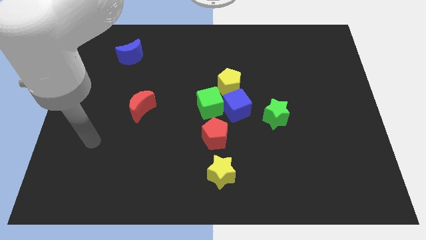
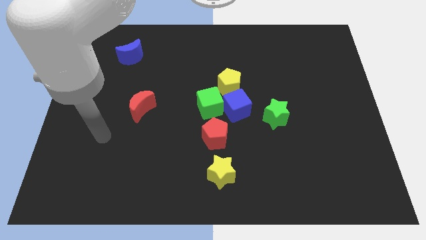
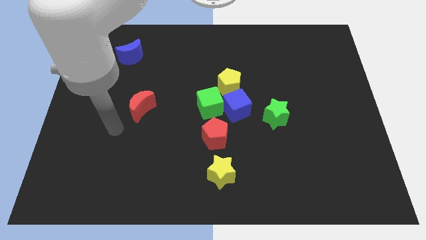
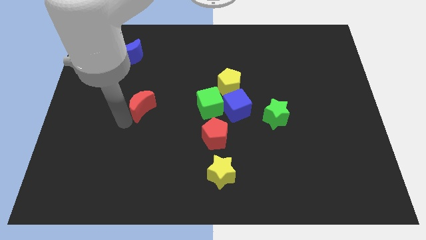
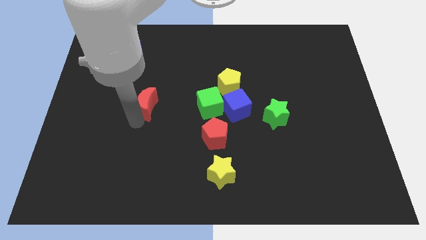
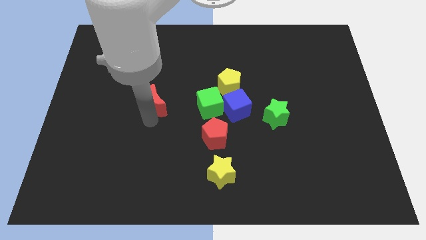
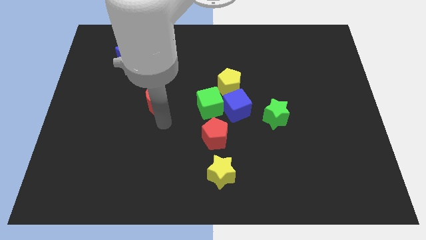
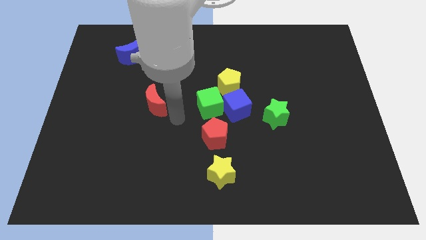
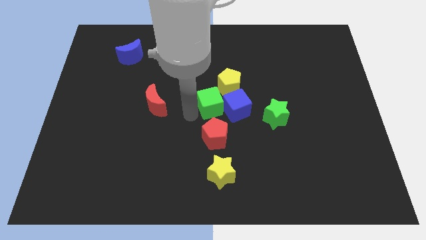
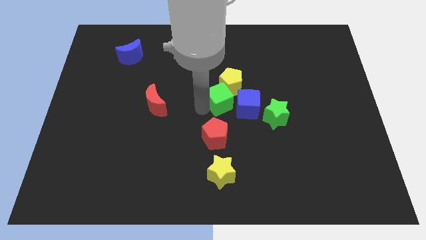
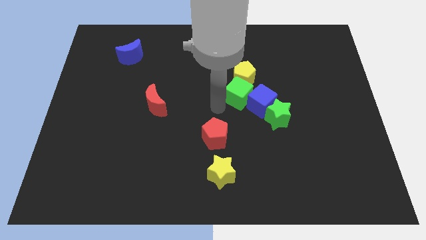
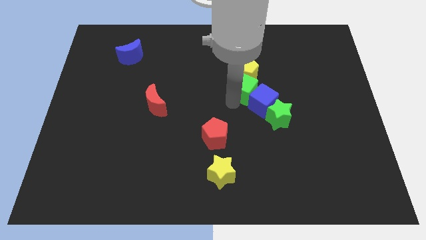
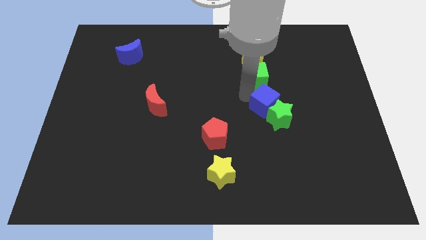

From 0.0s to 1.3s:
pull the yellow pentagon apart from the blue cube and green cube

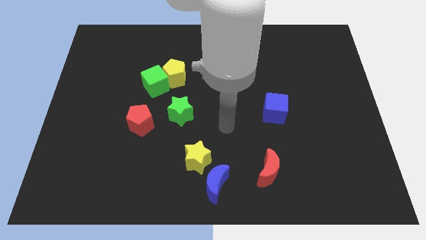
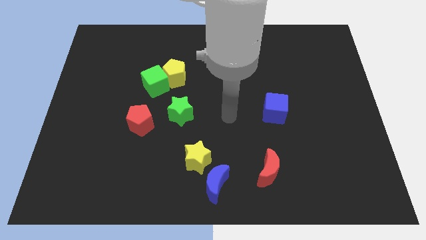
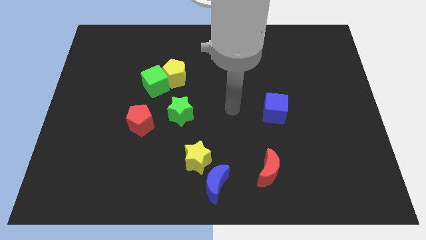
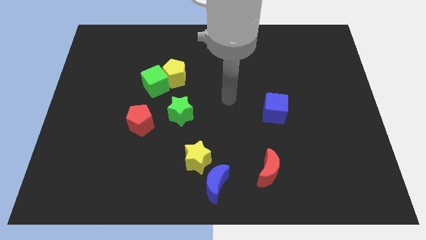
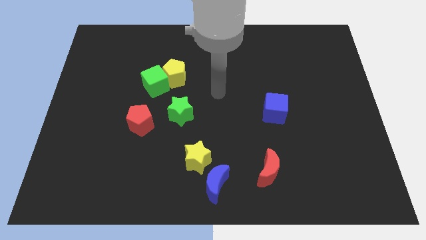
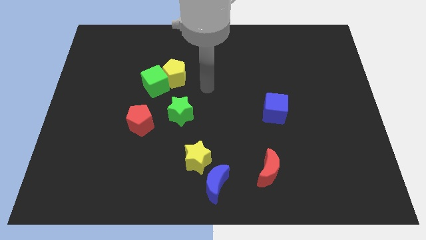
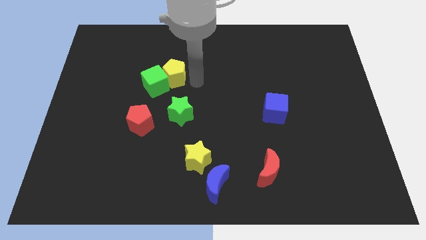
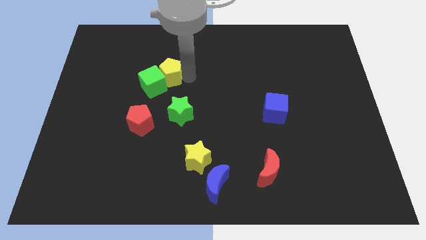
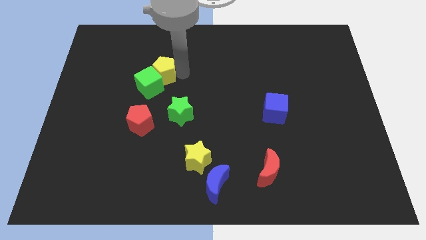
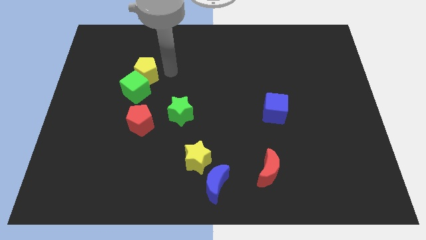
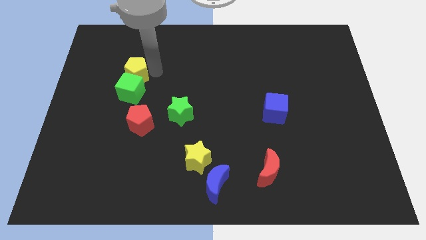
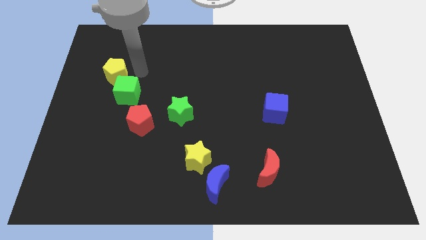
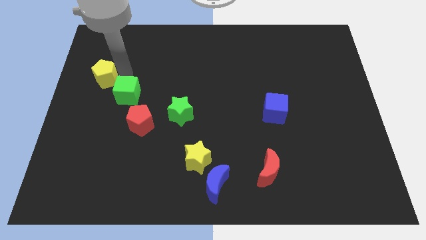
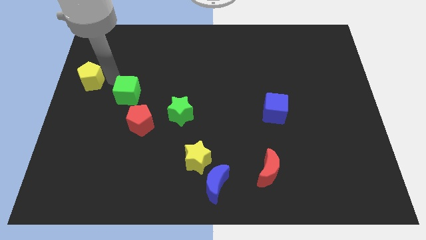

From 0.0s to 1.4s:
move the green cube away from the yellow pentagon

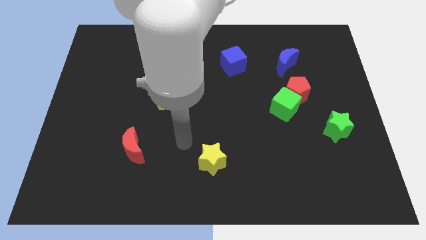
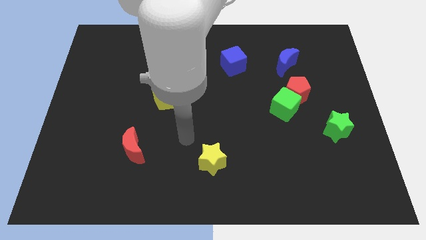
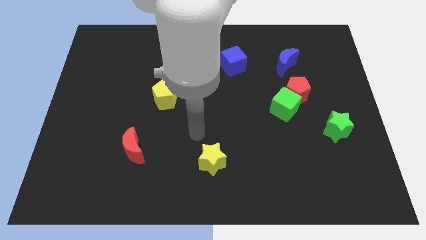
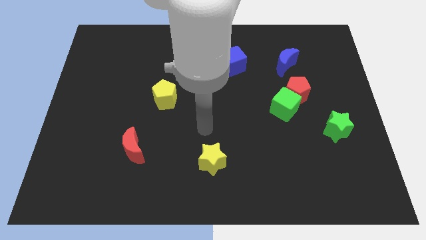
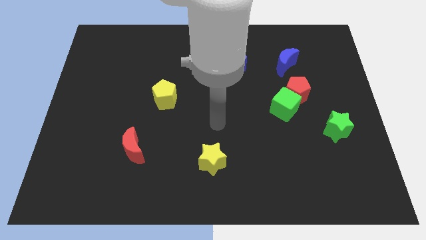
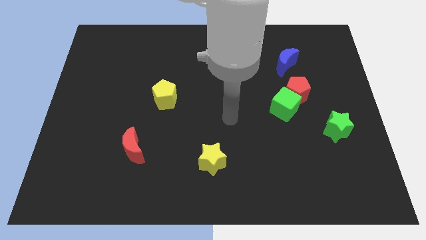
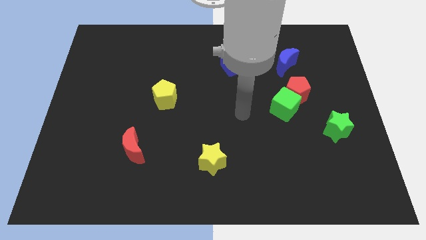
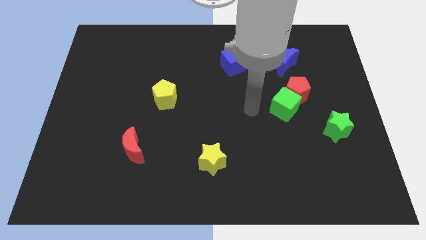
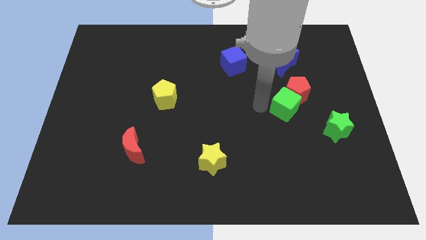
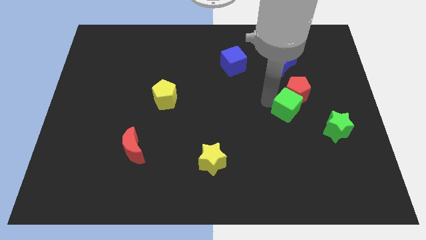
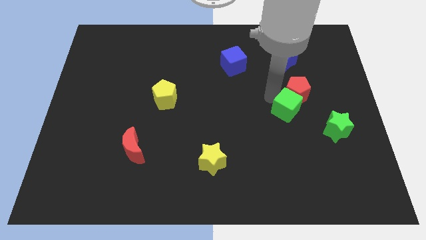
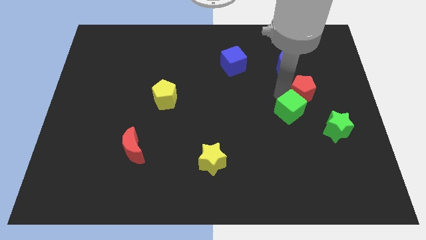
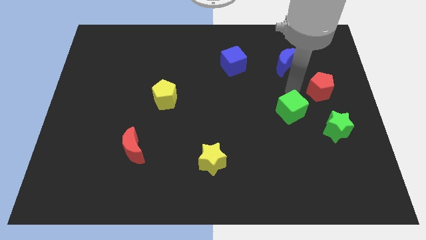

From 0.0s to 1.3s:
separate the green cube from the red pentagon

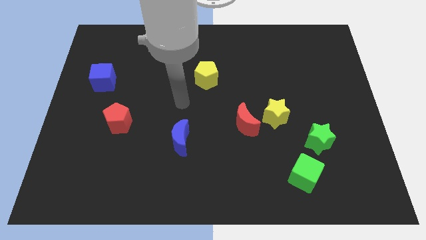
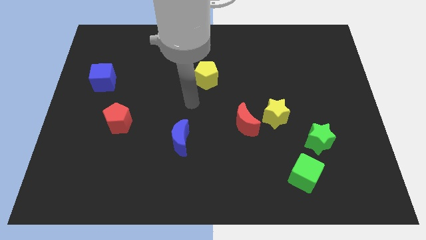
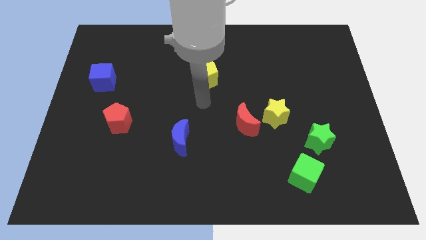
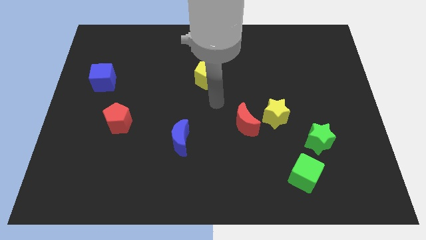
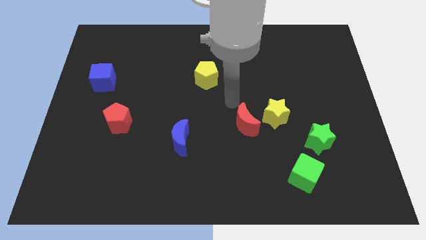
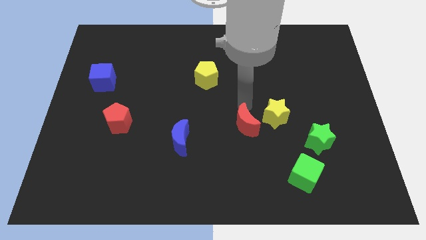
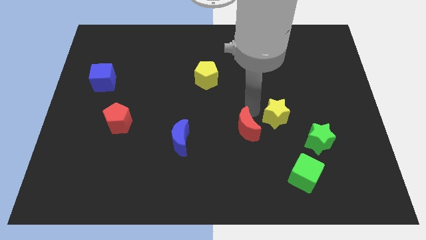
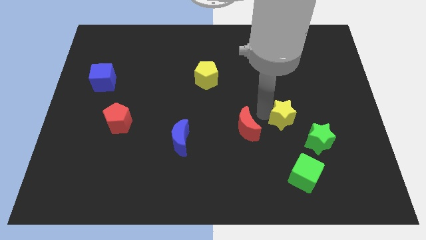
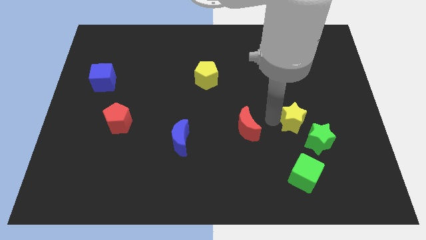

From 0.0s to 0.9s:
separate the red moon from the yellow star

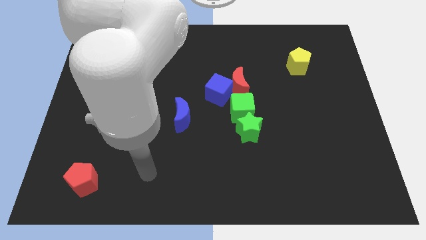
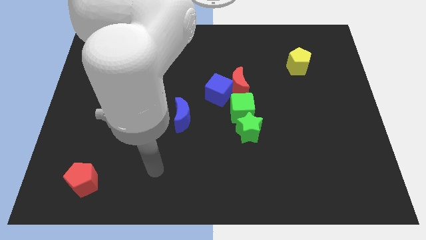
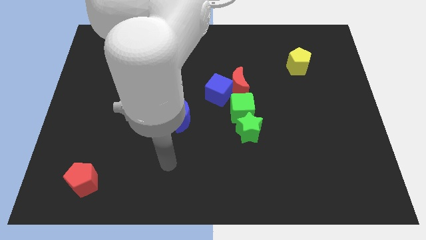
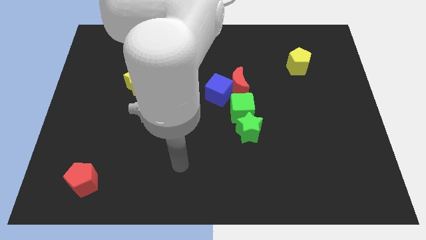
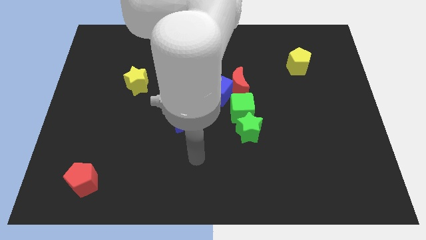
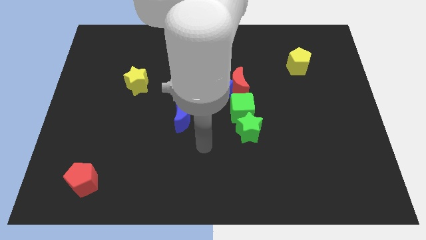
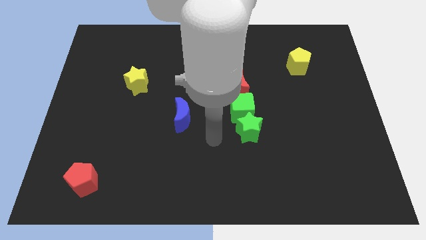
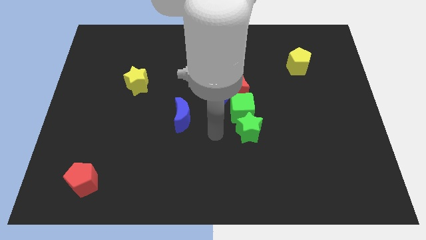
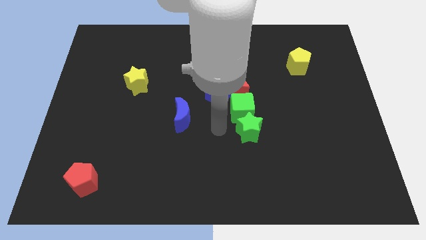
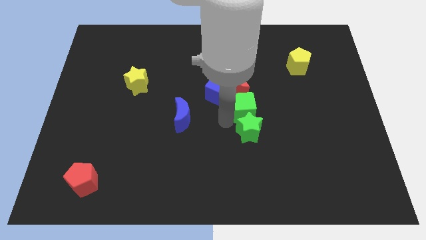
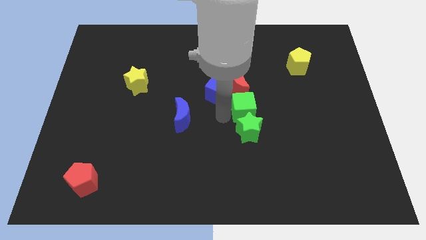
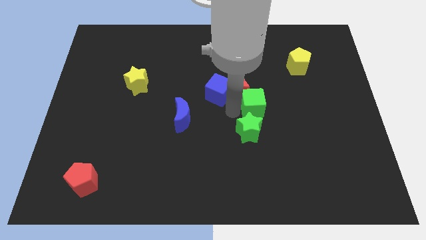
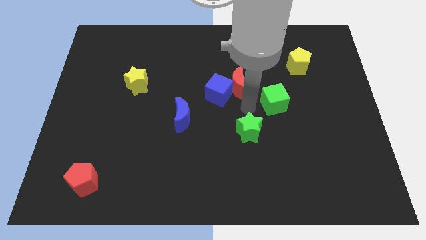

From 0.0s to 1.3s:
pull the green star apart from the green cube

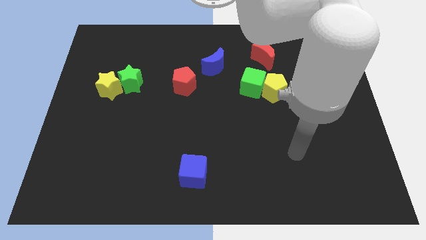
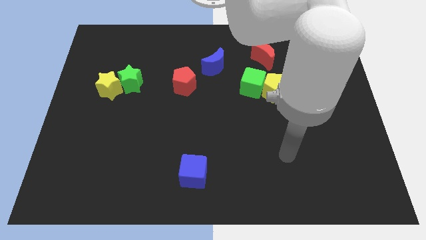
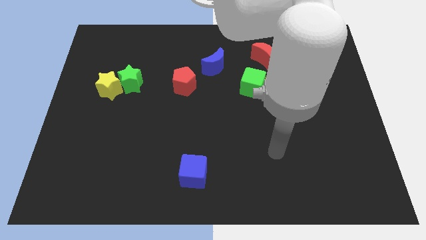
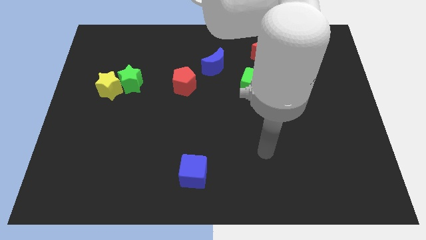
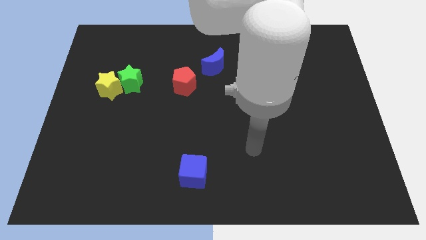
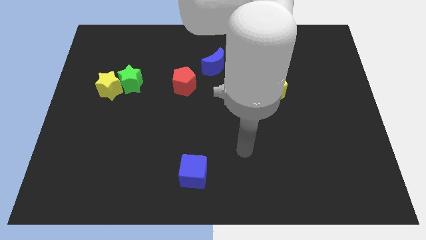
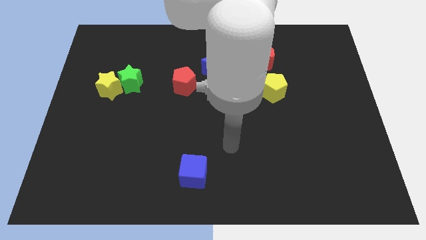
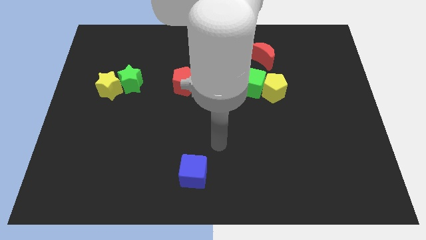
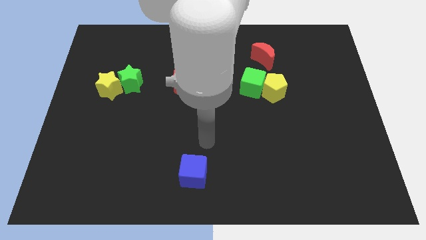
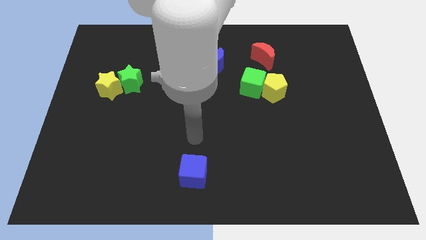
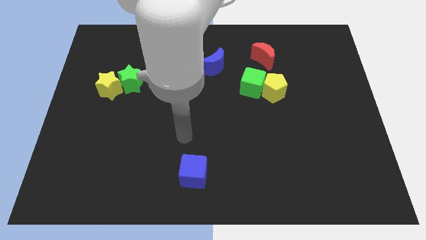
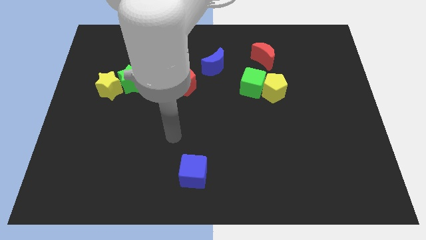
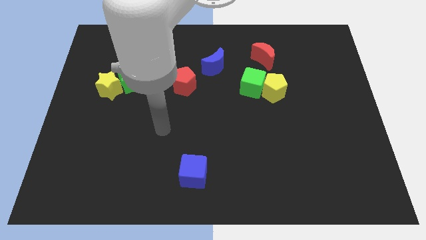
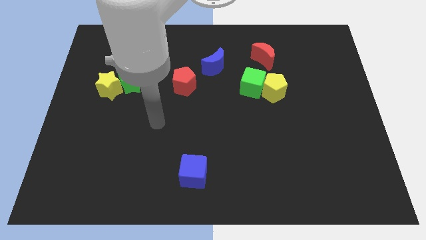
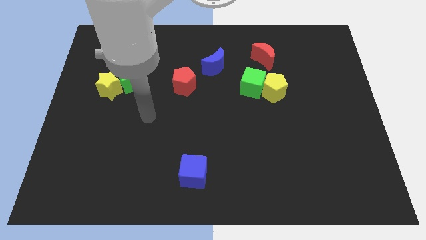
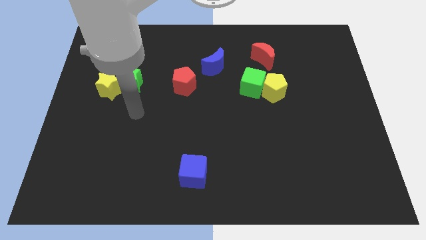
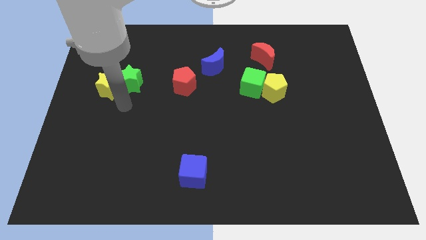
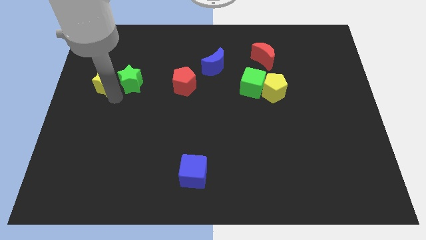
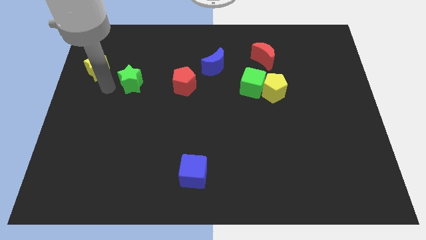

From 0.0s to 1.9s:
separate the green star from the yellow star

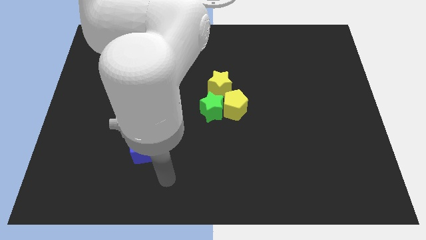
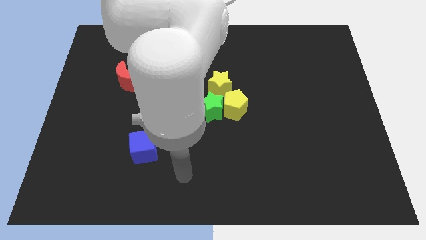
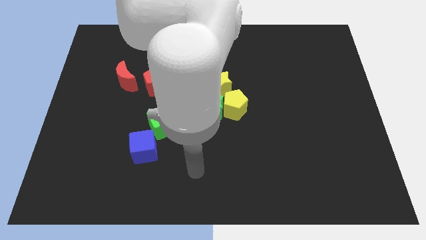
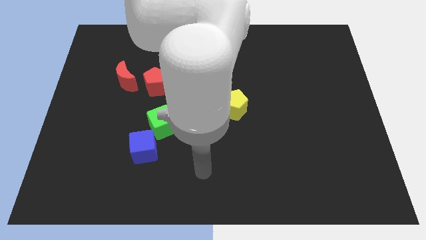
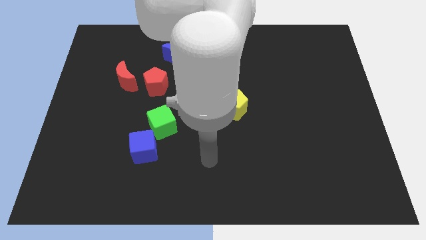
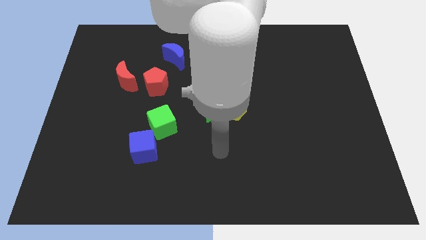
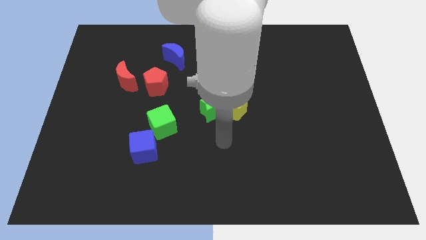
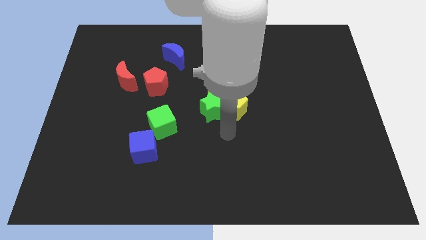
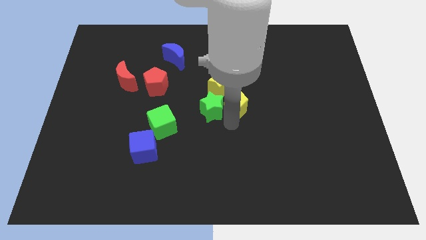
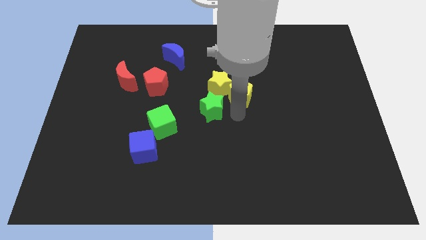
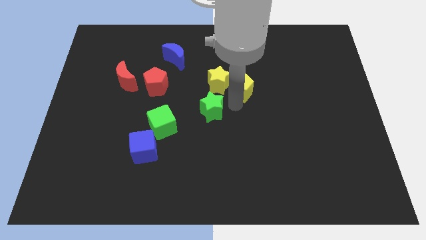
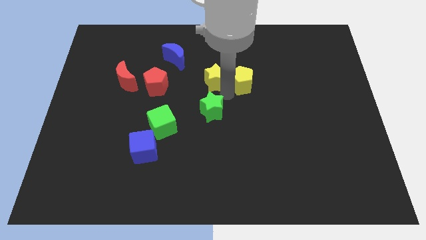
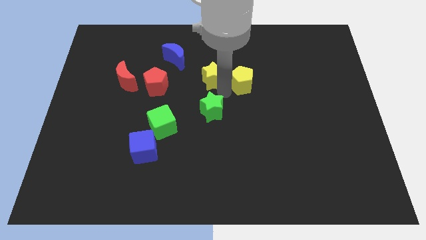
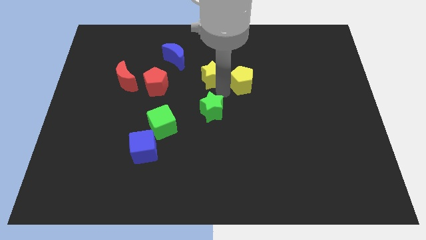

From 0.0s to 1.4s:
separate the green star from the yellow pentagon and yellow star
